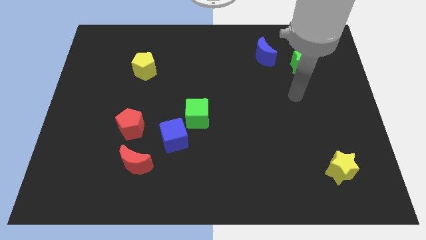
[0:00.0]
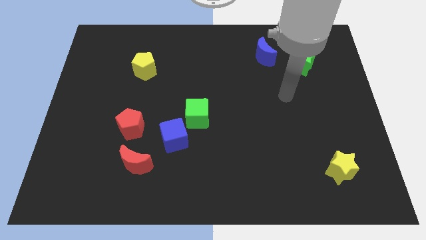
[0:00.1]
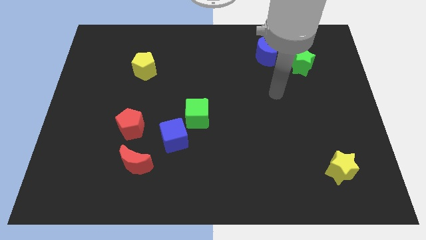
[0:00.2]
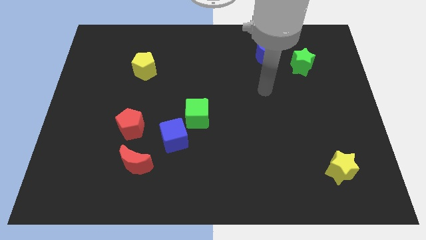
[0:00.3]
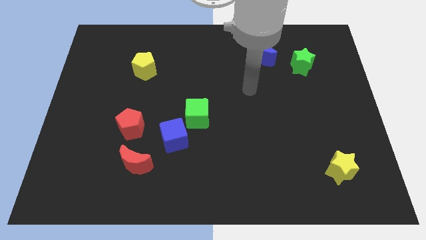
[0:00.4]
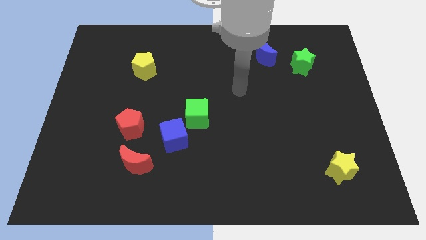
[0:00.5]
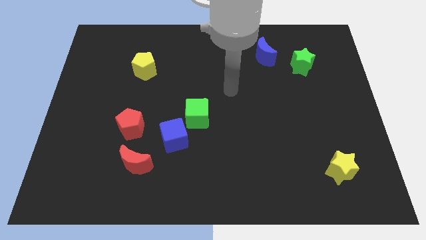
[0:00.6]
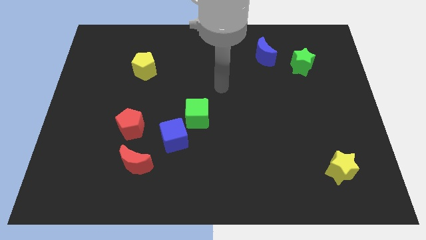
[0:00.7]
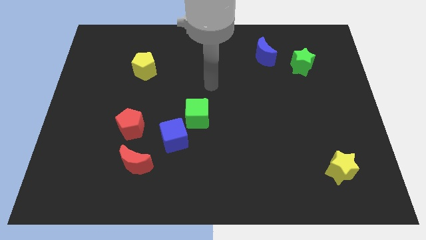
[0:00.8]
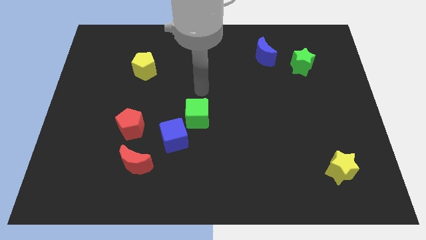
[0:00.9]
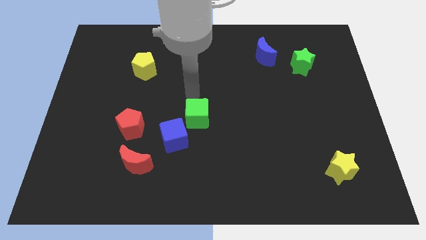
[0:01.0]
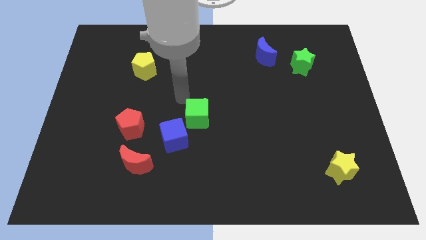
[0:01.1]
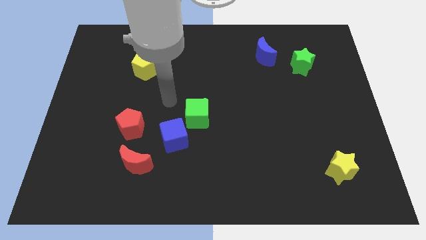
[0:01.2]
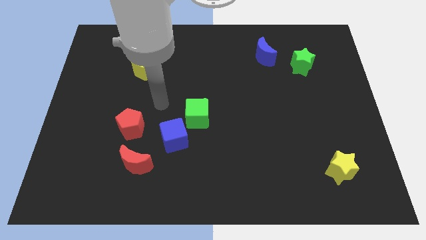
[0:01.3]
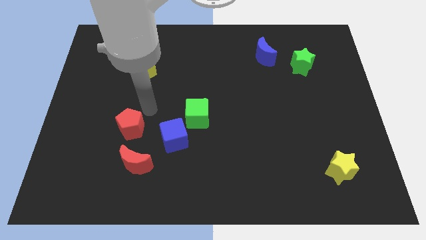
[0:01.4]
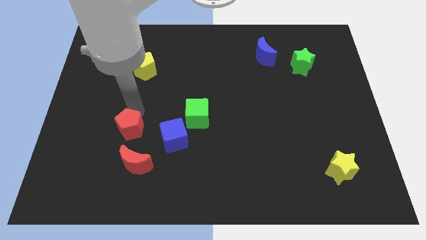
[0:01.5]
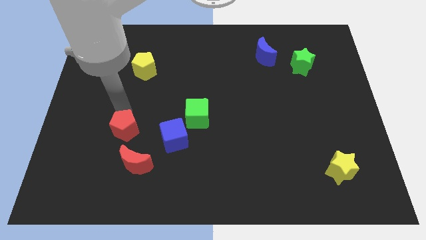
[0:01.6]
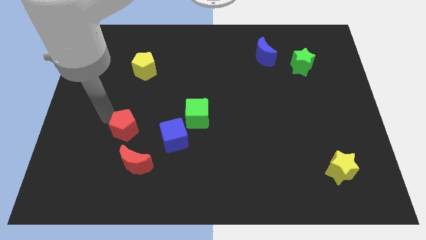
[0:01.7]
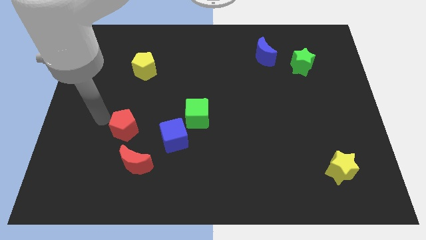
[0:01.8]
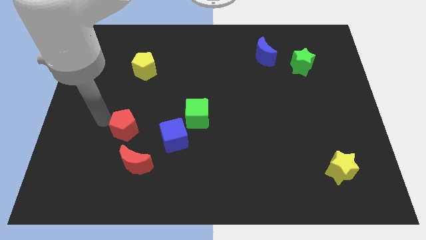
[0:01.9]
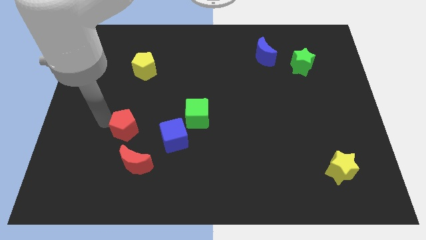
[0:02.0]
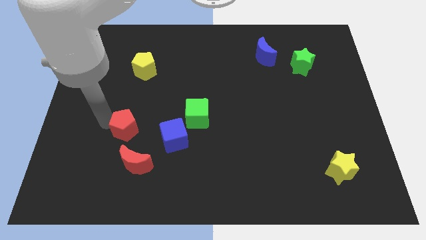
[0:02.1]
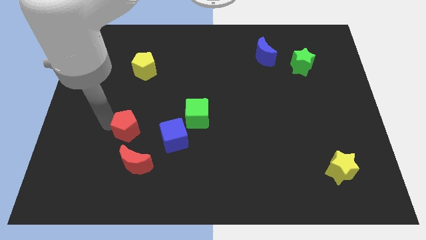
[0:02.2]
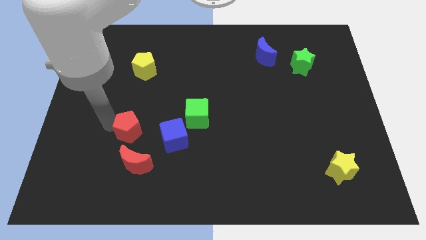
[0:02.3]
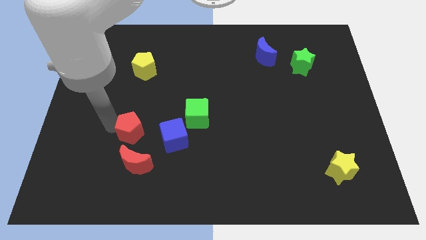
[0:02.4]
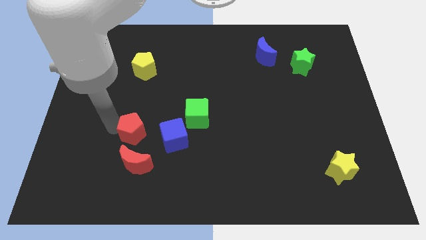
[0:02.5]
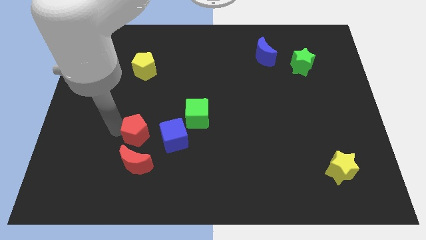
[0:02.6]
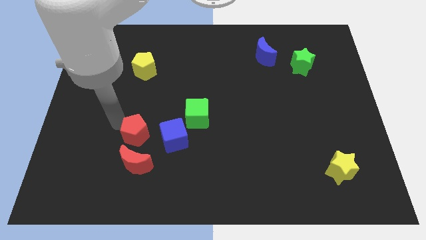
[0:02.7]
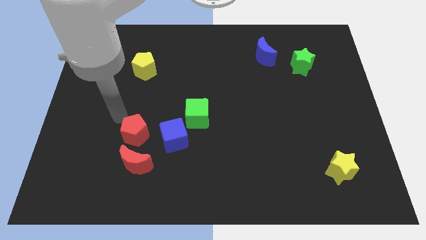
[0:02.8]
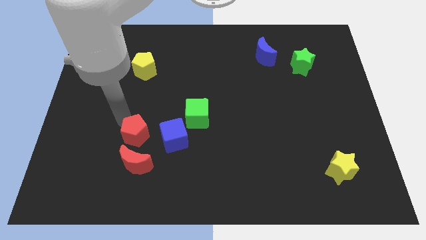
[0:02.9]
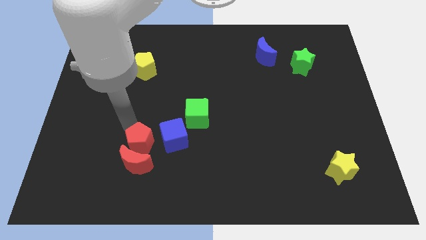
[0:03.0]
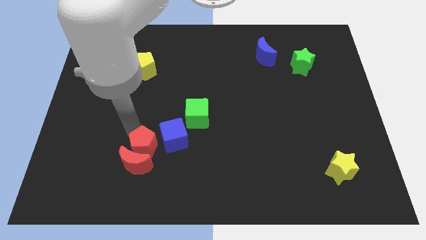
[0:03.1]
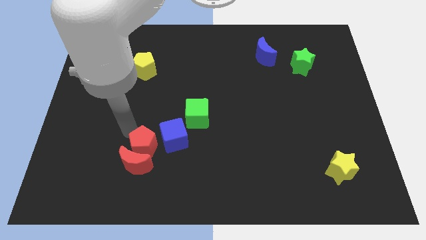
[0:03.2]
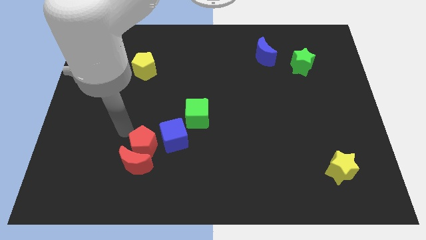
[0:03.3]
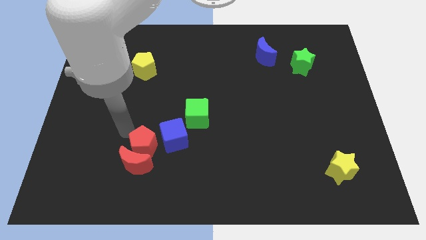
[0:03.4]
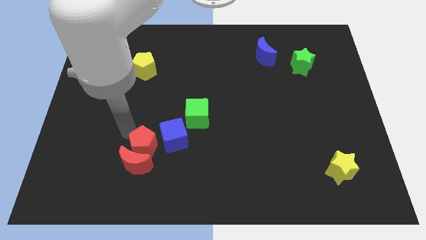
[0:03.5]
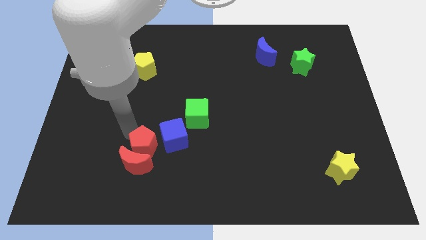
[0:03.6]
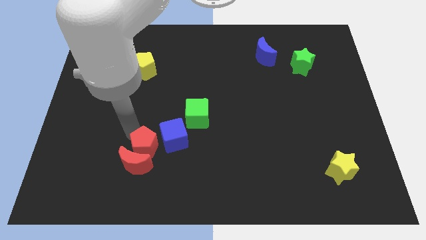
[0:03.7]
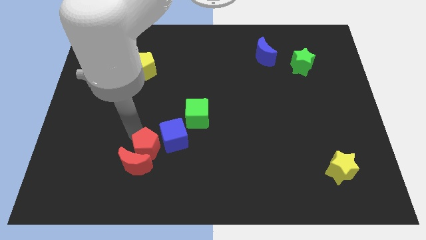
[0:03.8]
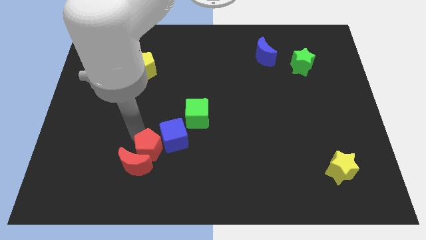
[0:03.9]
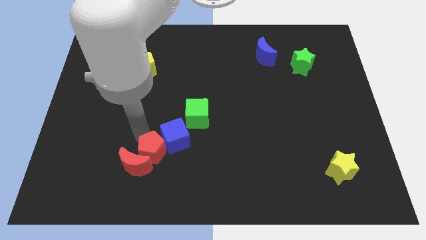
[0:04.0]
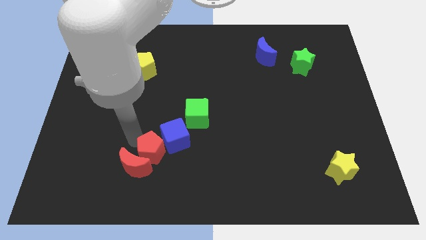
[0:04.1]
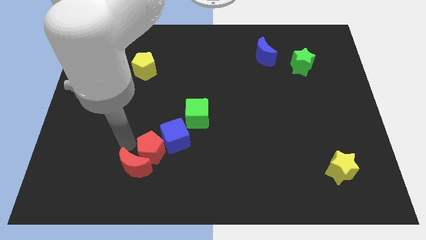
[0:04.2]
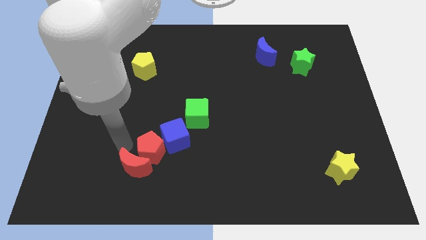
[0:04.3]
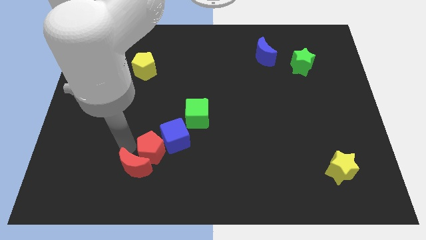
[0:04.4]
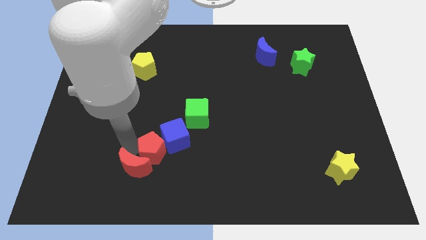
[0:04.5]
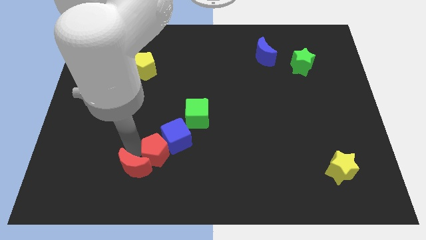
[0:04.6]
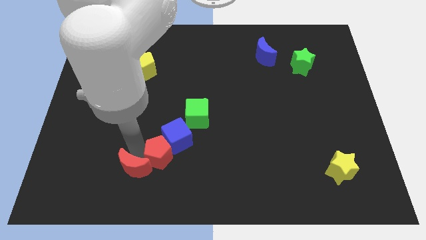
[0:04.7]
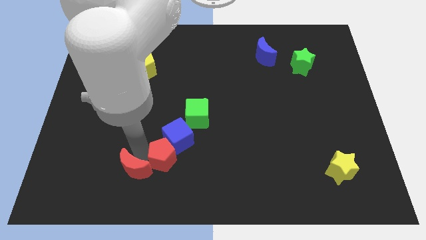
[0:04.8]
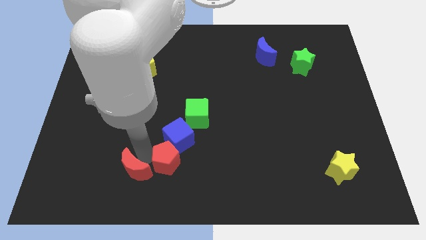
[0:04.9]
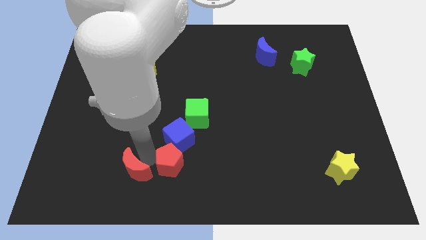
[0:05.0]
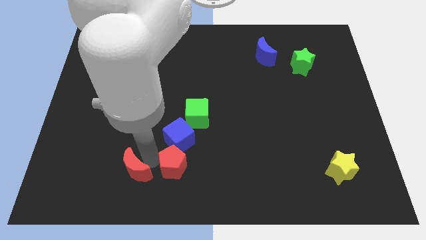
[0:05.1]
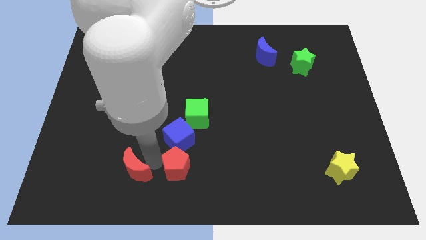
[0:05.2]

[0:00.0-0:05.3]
put the red pentagon diagonally down and to the right of the blue cube

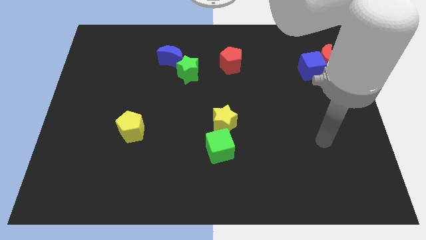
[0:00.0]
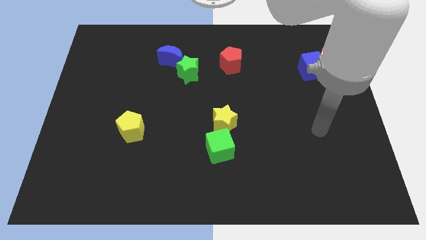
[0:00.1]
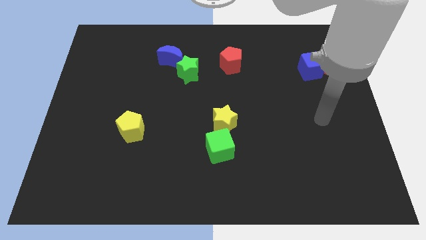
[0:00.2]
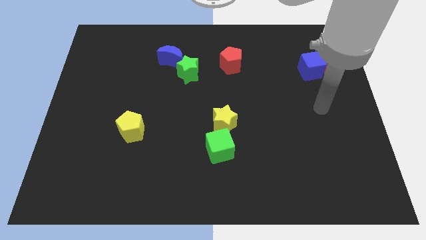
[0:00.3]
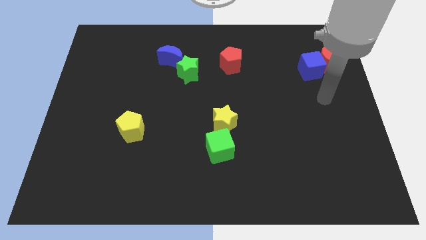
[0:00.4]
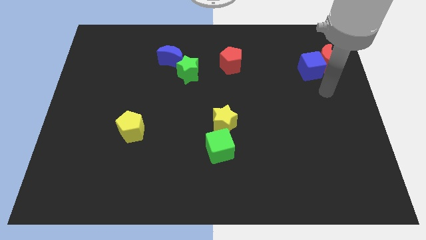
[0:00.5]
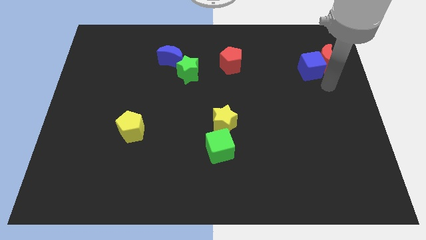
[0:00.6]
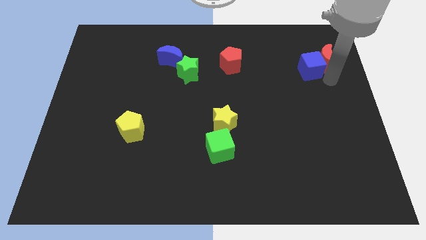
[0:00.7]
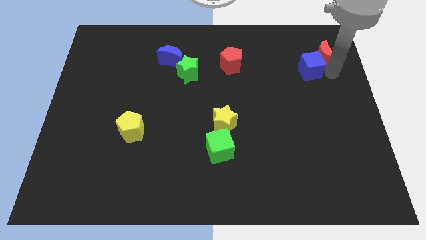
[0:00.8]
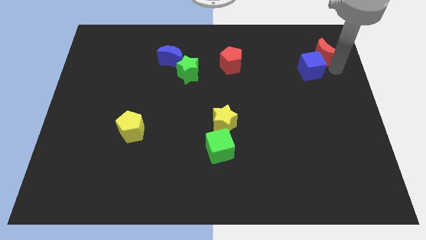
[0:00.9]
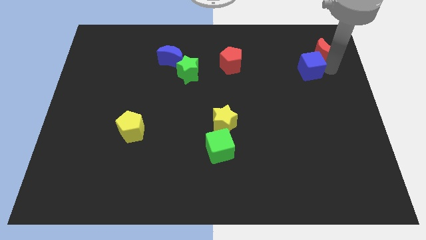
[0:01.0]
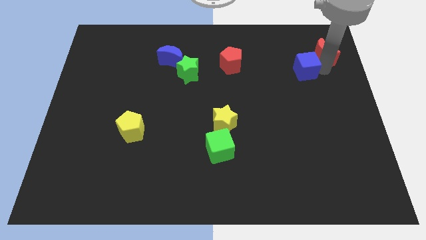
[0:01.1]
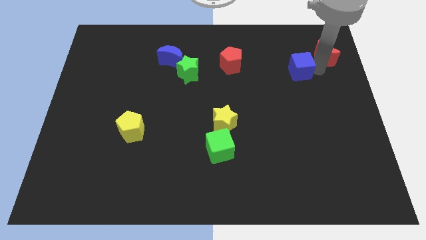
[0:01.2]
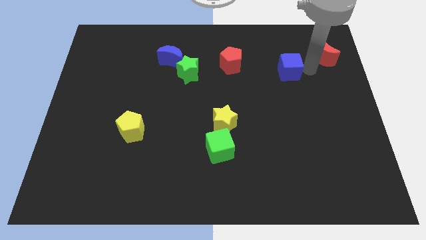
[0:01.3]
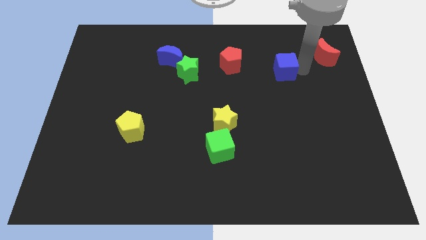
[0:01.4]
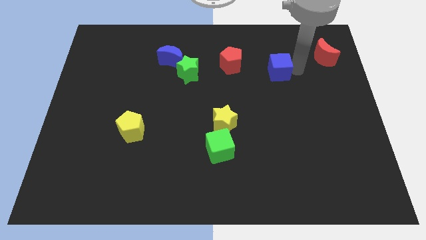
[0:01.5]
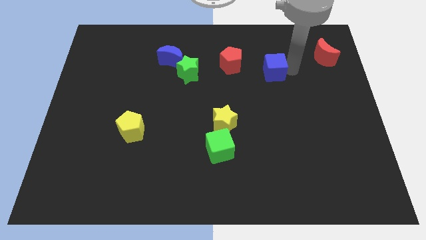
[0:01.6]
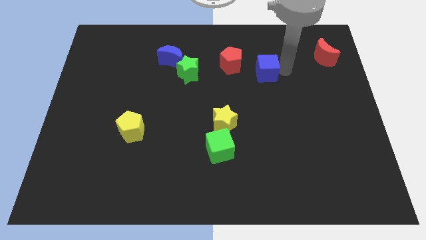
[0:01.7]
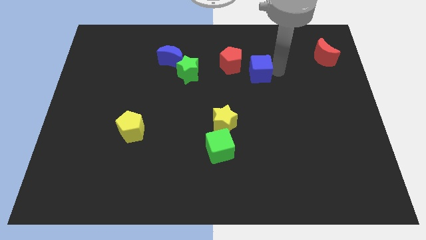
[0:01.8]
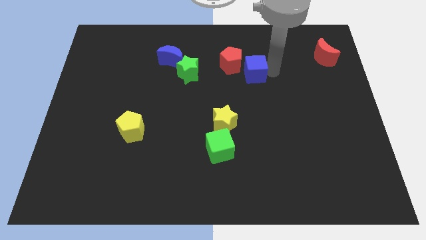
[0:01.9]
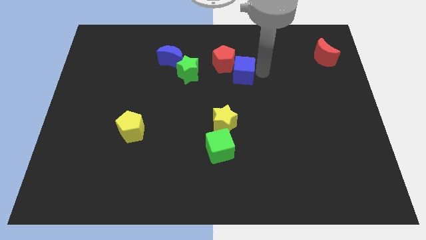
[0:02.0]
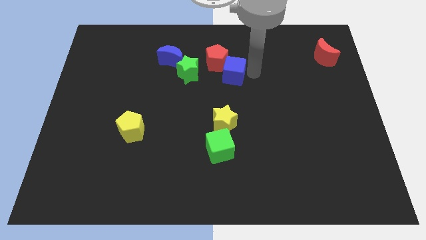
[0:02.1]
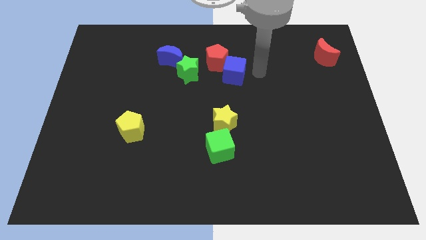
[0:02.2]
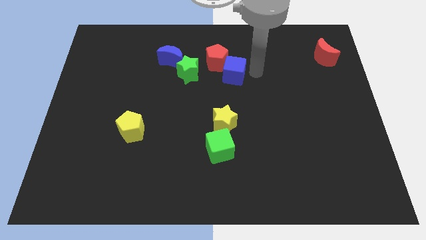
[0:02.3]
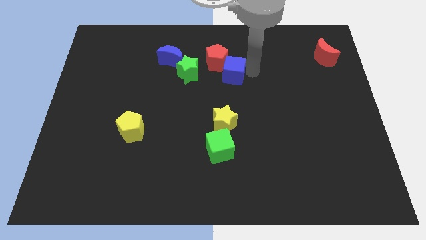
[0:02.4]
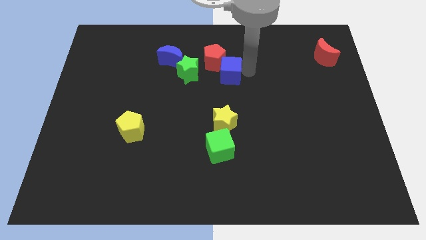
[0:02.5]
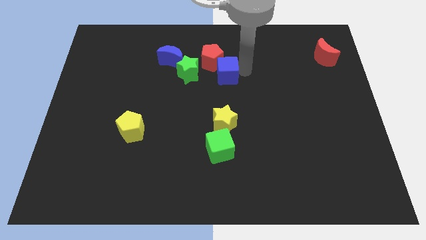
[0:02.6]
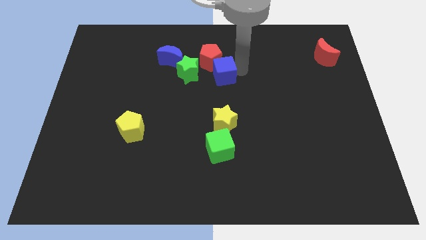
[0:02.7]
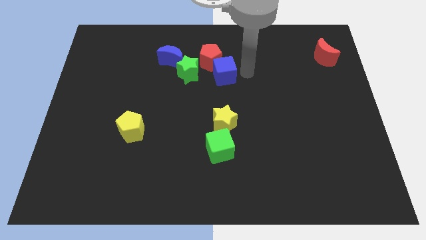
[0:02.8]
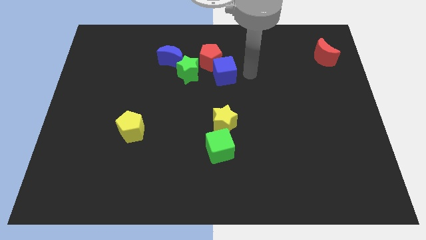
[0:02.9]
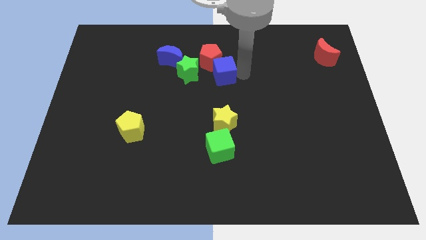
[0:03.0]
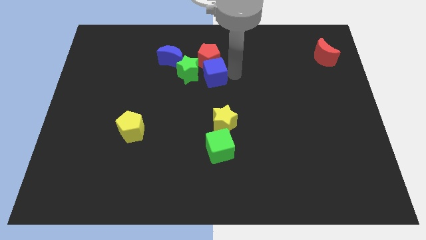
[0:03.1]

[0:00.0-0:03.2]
put the blue cube to the bottom left of the red pentagon
